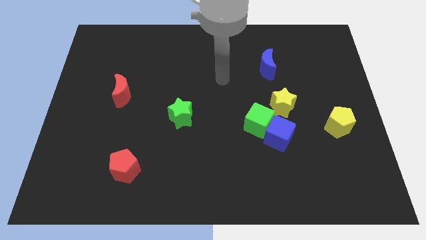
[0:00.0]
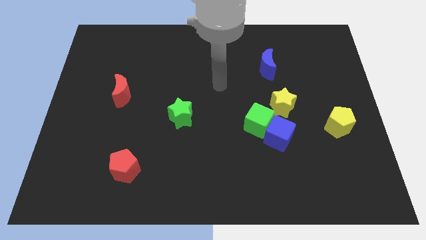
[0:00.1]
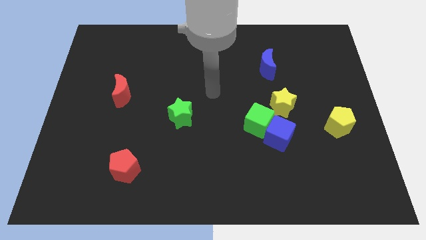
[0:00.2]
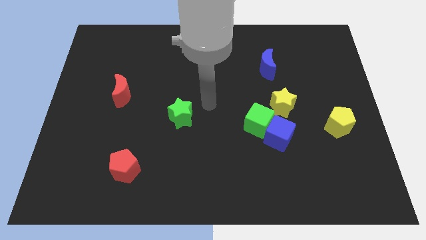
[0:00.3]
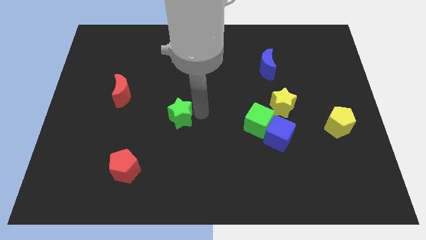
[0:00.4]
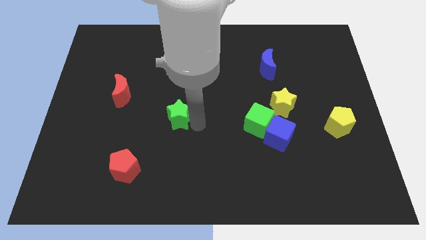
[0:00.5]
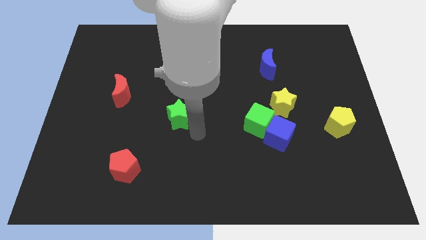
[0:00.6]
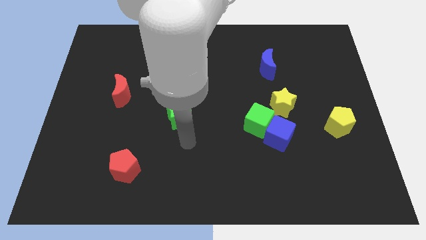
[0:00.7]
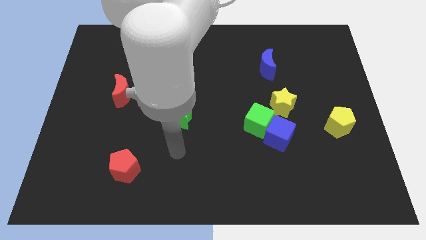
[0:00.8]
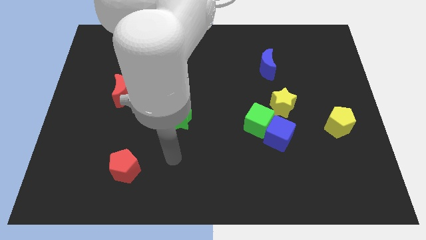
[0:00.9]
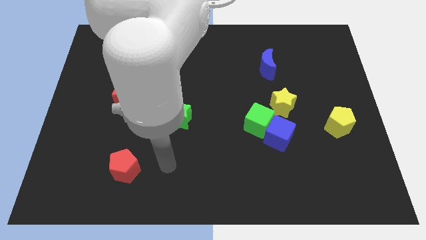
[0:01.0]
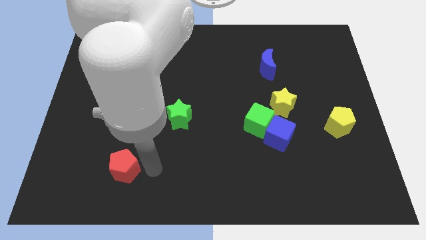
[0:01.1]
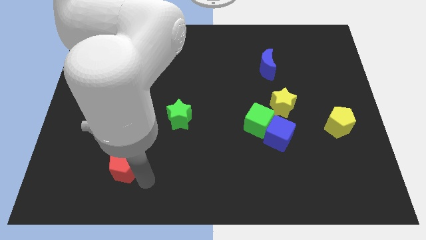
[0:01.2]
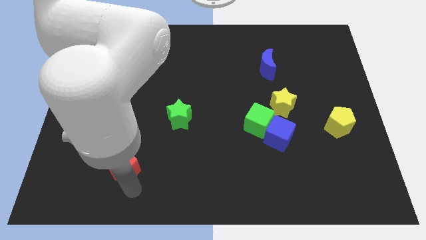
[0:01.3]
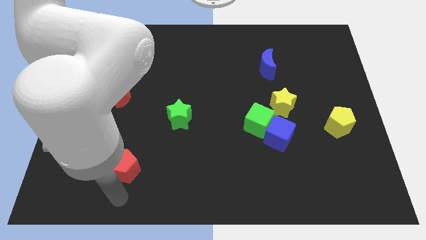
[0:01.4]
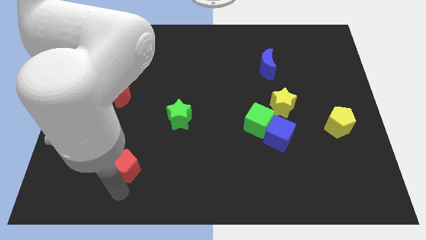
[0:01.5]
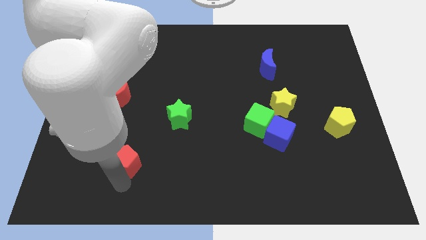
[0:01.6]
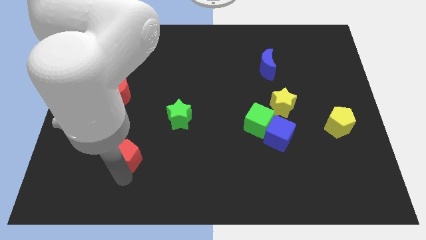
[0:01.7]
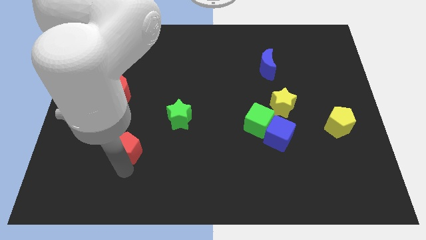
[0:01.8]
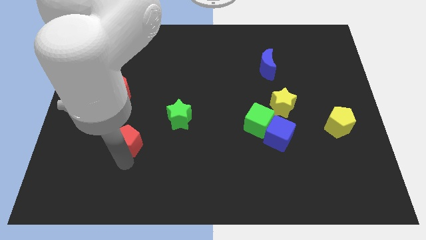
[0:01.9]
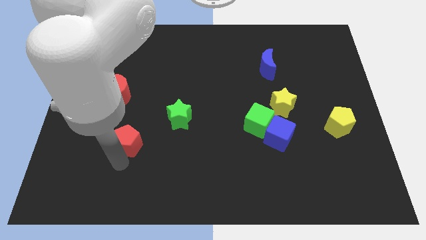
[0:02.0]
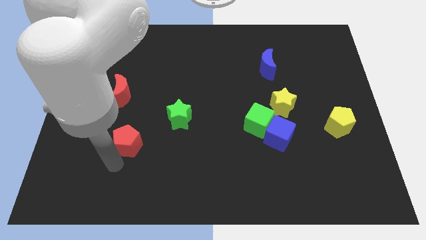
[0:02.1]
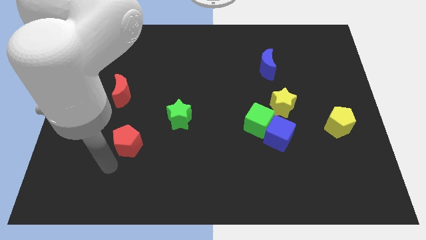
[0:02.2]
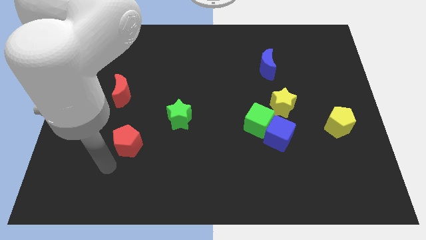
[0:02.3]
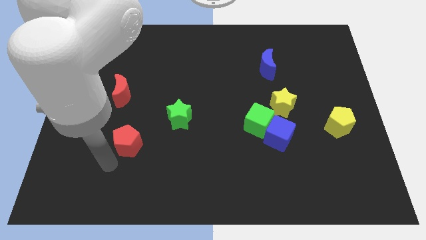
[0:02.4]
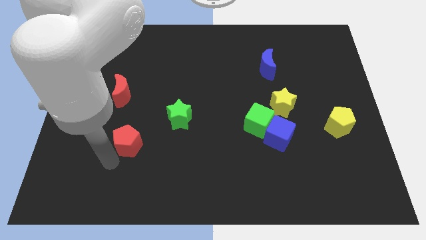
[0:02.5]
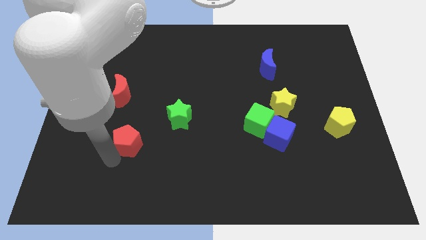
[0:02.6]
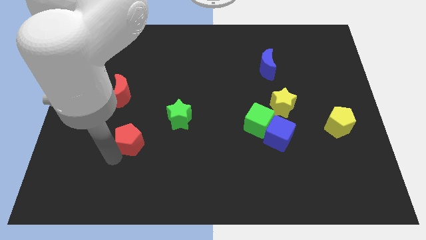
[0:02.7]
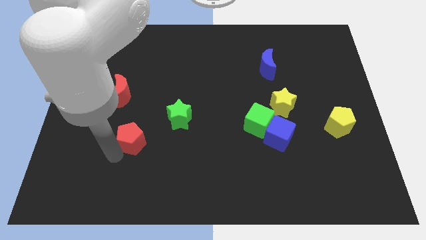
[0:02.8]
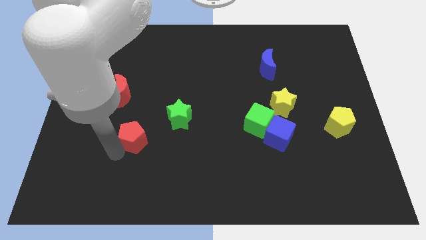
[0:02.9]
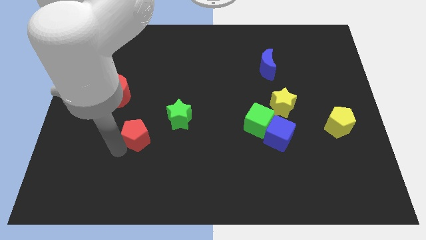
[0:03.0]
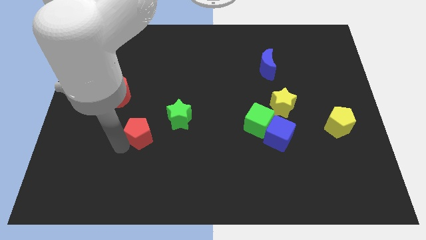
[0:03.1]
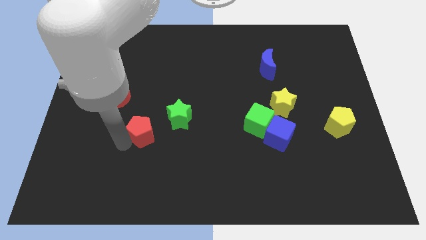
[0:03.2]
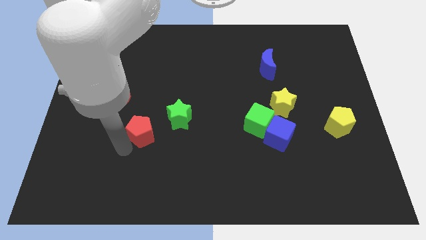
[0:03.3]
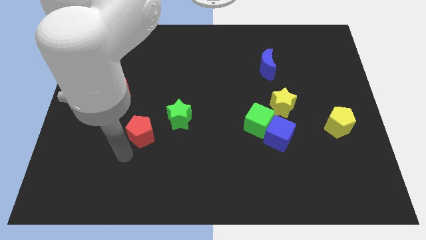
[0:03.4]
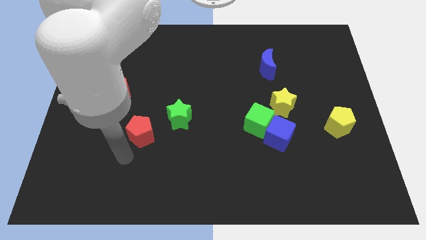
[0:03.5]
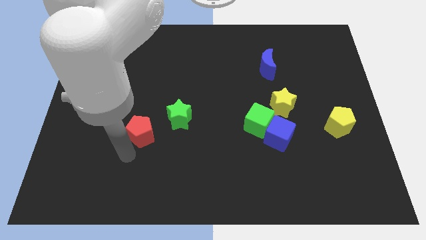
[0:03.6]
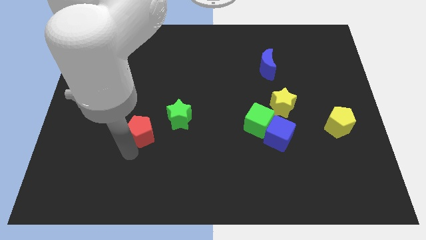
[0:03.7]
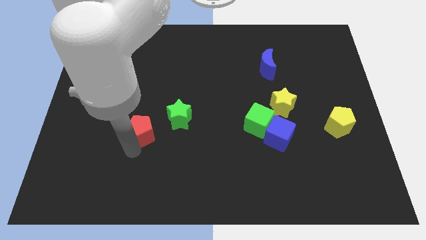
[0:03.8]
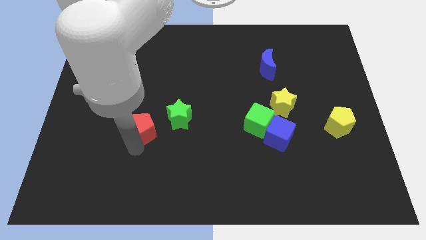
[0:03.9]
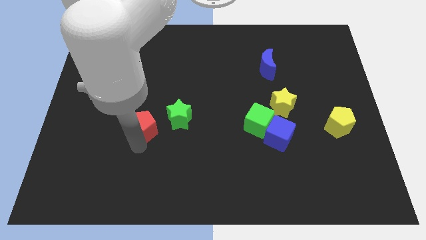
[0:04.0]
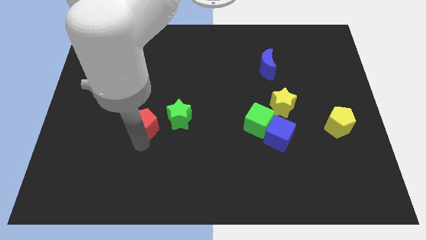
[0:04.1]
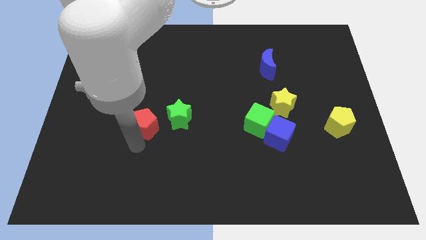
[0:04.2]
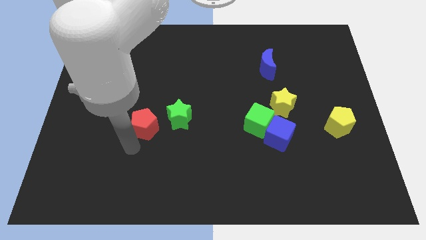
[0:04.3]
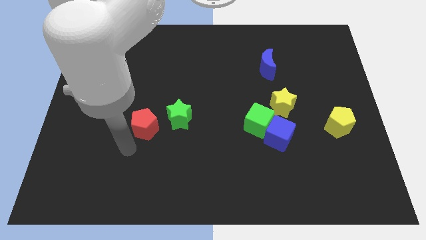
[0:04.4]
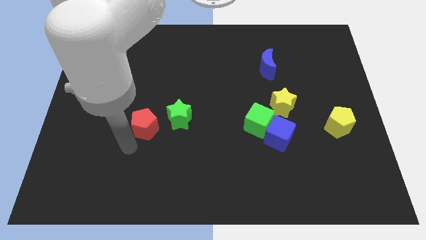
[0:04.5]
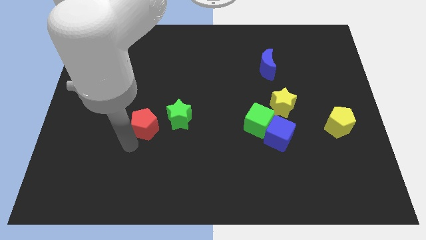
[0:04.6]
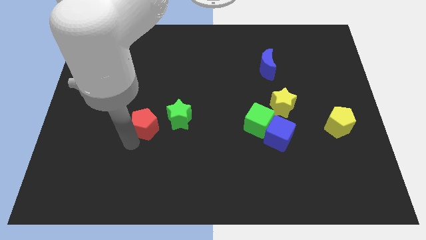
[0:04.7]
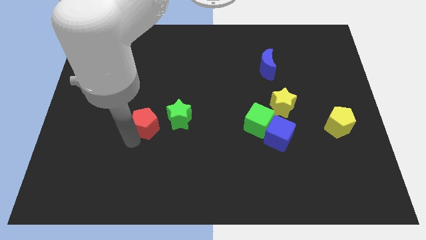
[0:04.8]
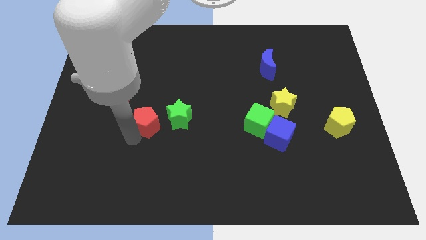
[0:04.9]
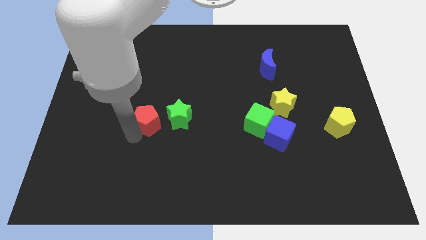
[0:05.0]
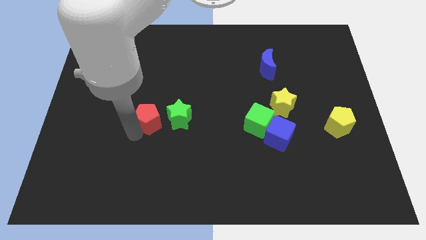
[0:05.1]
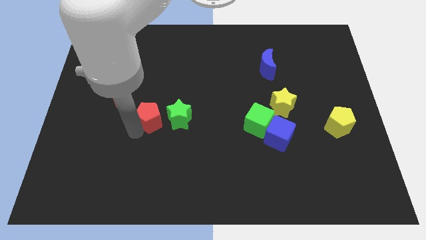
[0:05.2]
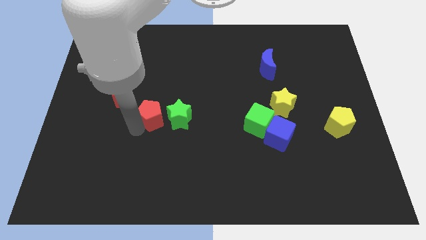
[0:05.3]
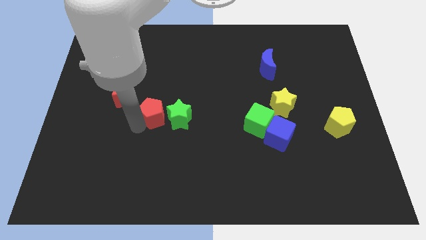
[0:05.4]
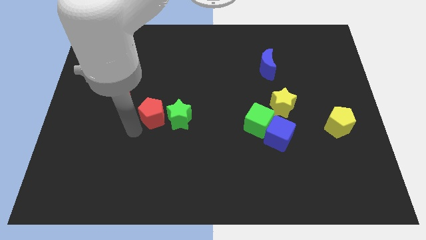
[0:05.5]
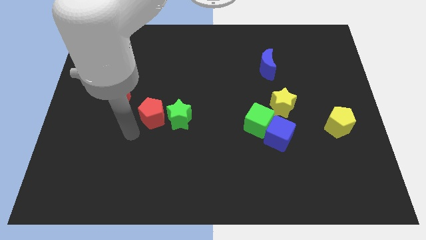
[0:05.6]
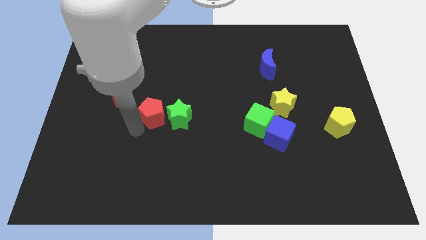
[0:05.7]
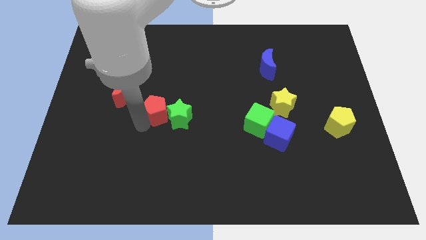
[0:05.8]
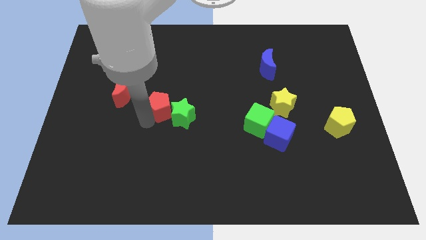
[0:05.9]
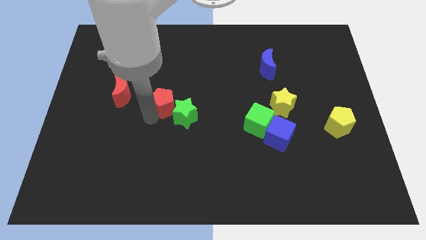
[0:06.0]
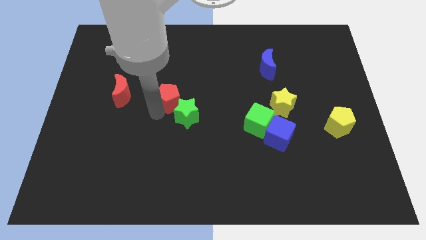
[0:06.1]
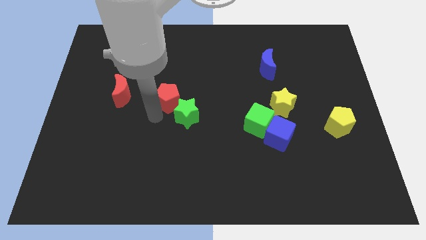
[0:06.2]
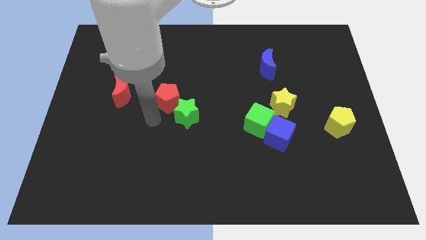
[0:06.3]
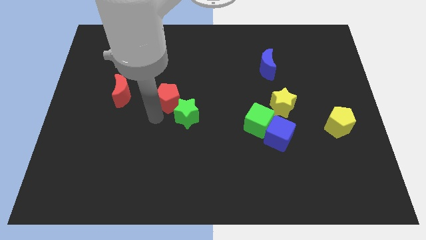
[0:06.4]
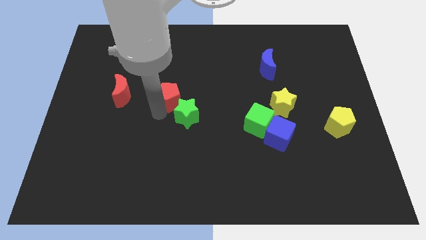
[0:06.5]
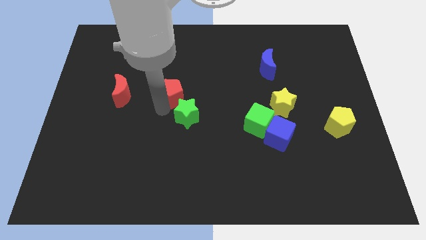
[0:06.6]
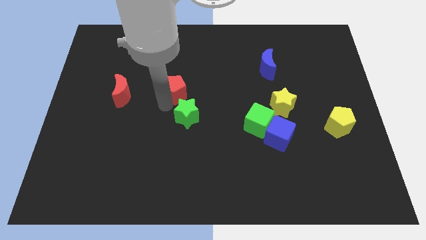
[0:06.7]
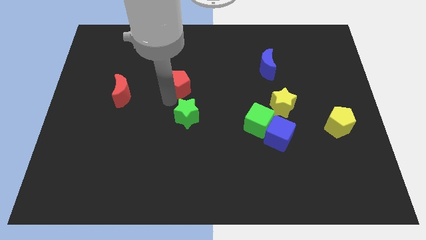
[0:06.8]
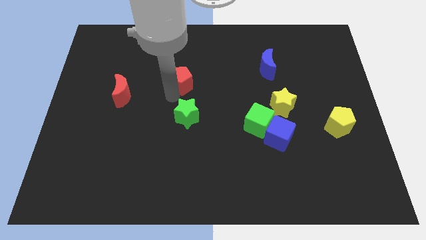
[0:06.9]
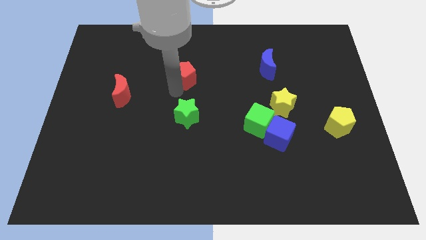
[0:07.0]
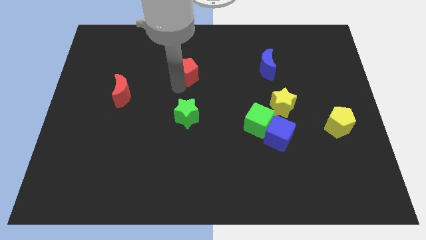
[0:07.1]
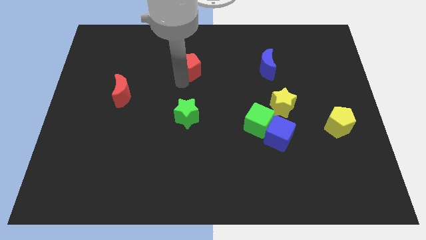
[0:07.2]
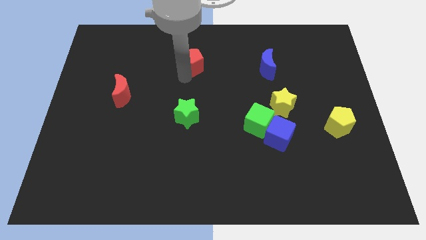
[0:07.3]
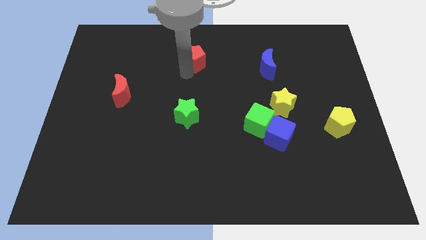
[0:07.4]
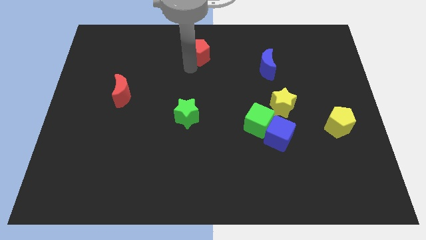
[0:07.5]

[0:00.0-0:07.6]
put the red pentagon to the top
